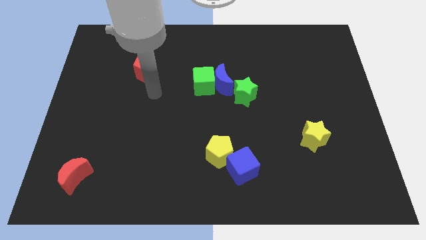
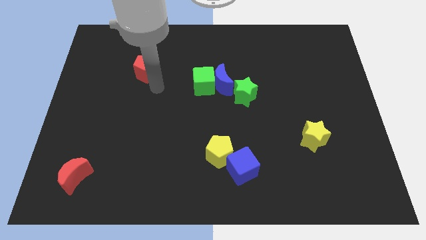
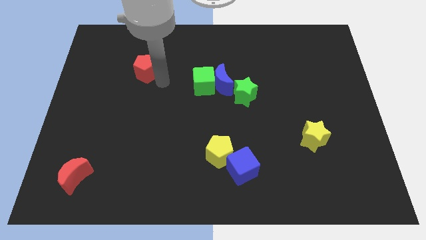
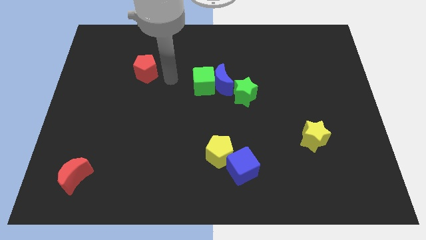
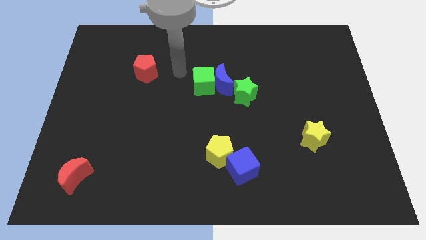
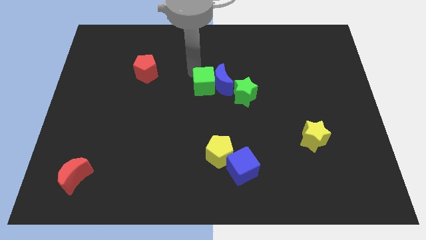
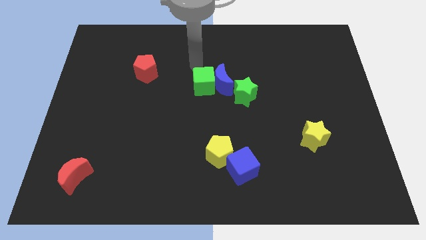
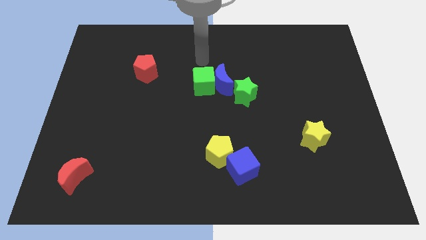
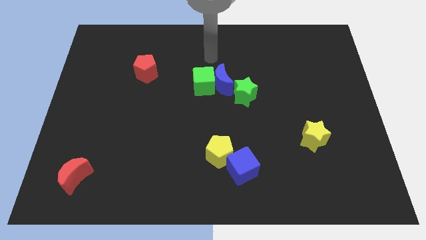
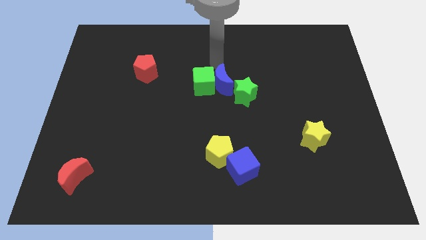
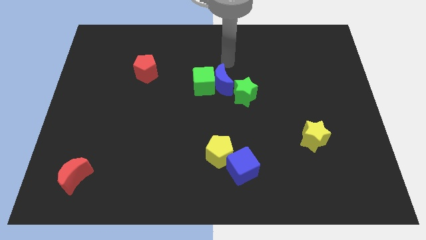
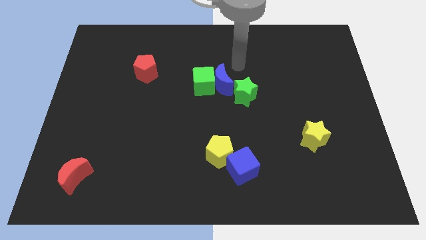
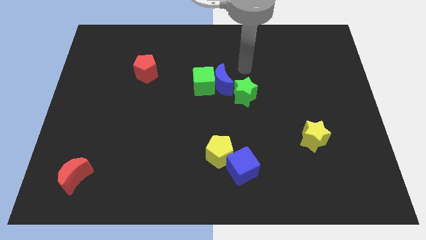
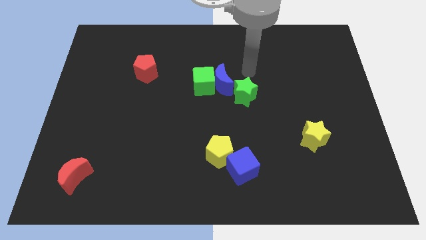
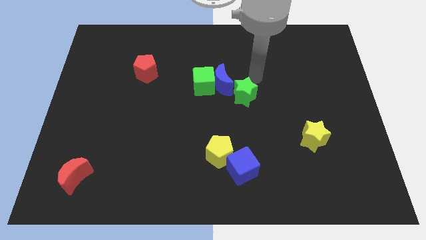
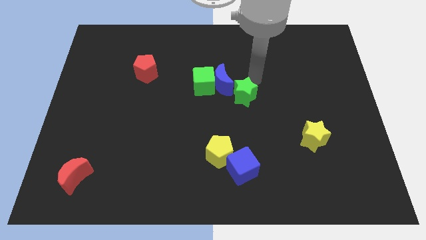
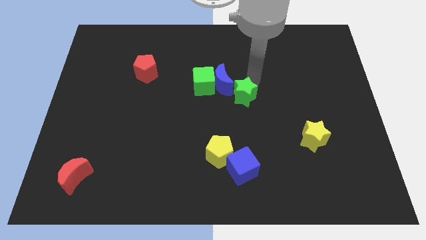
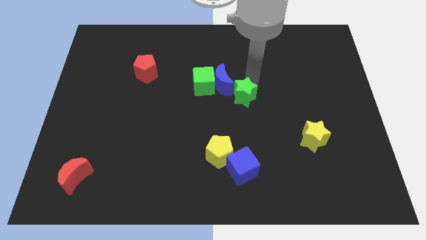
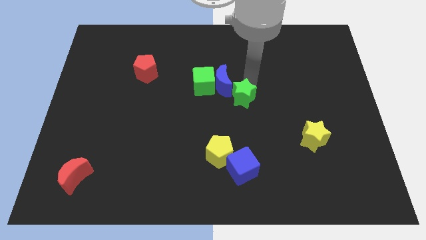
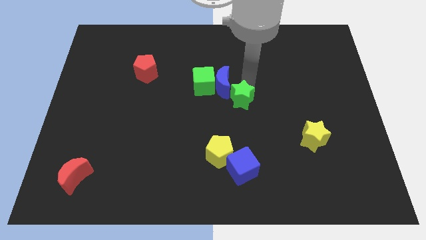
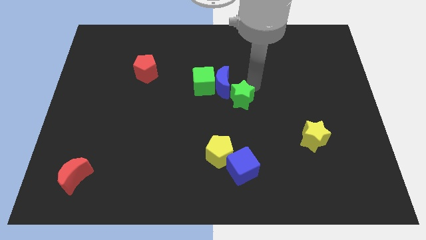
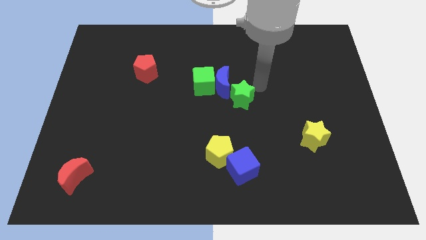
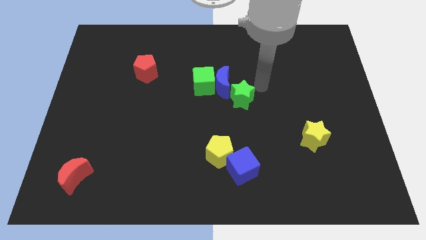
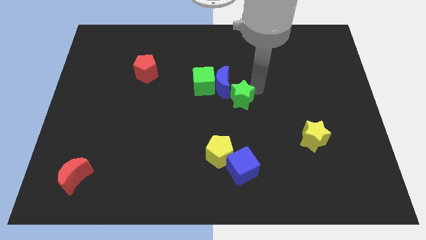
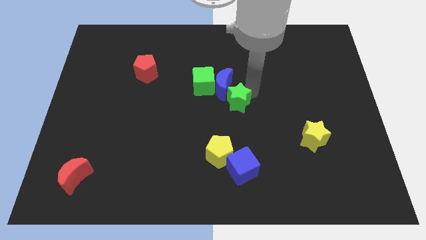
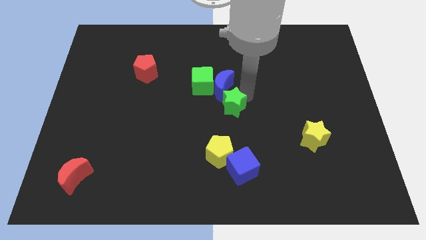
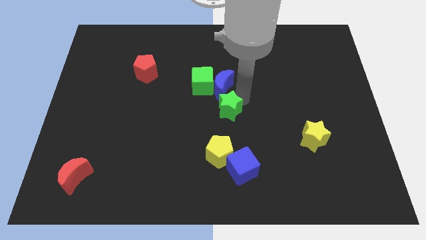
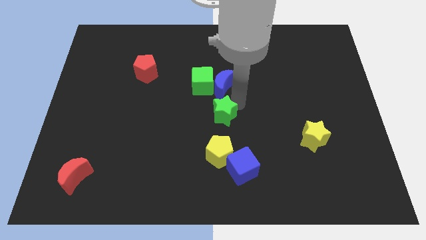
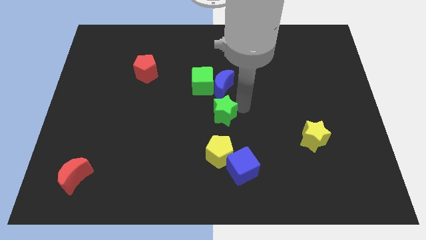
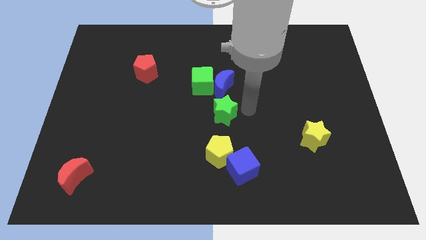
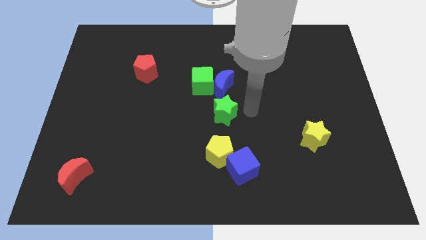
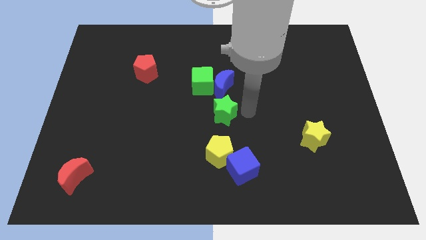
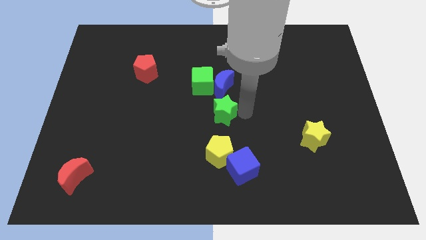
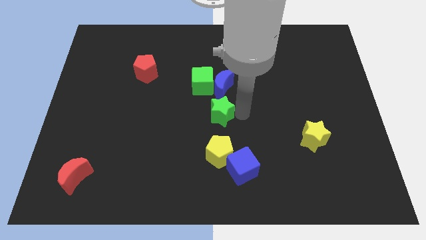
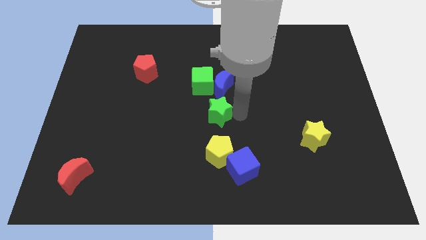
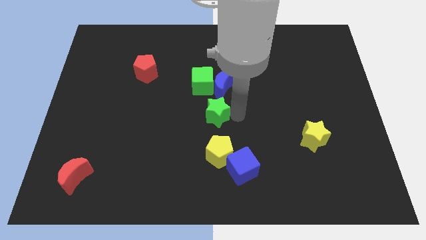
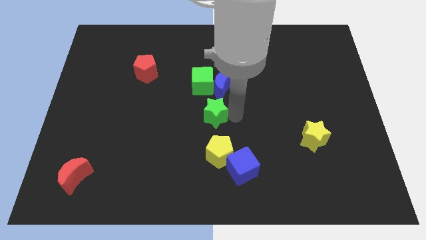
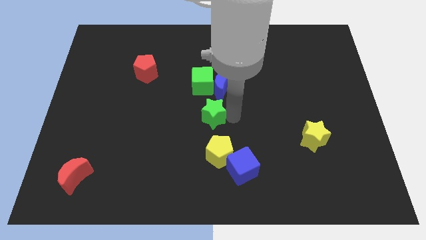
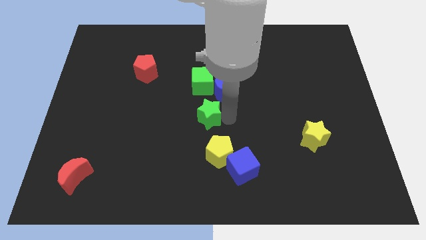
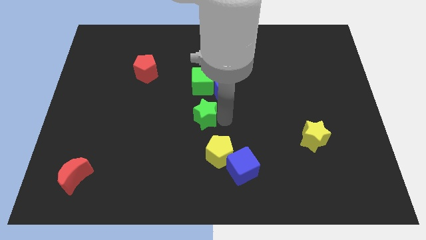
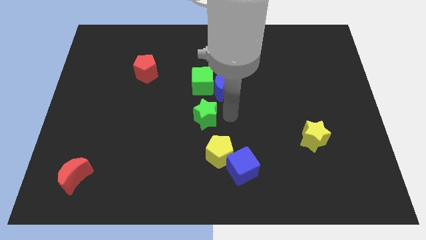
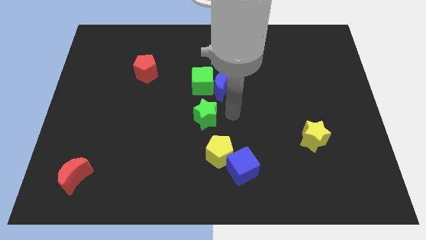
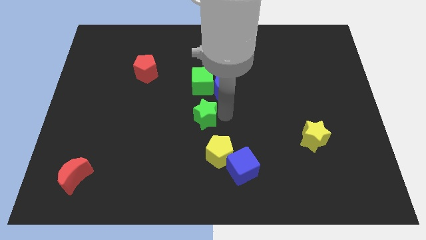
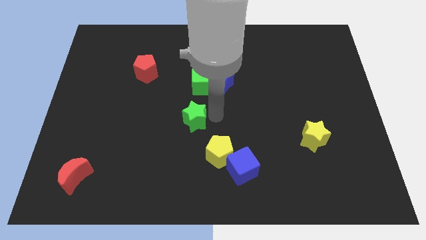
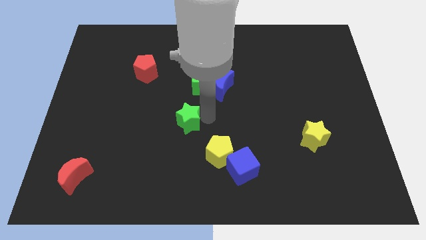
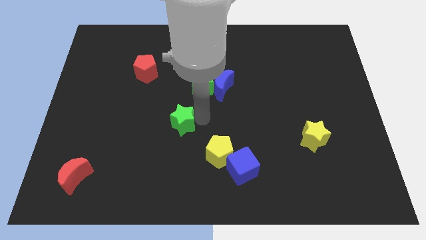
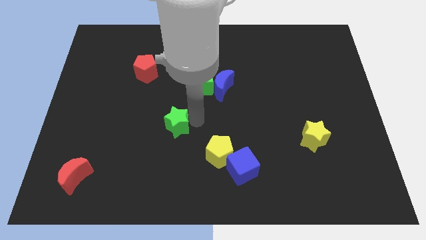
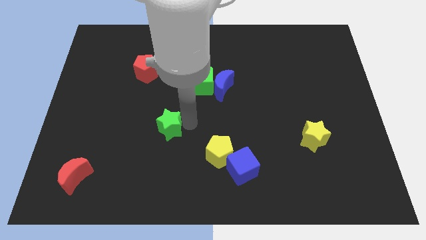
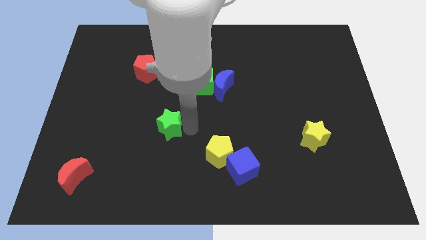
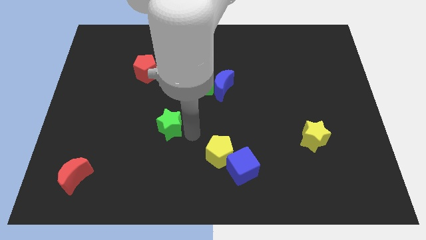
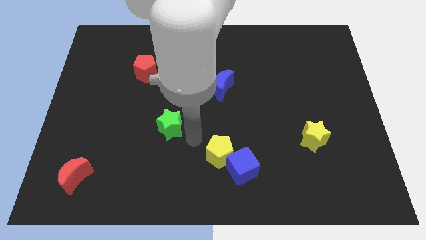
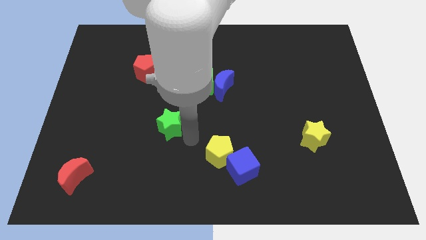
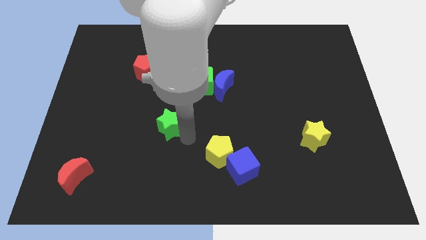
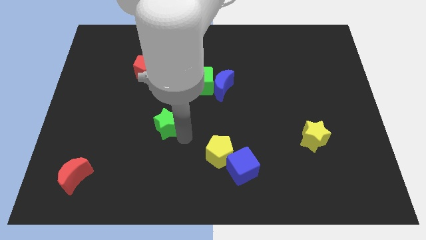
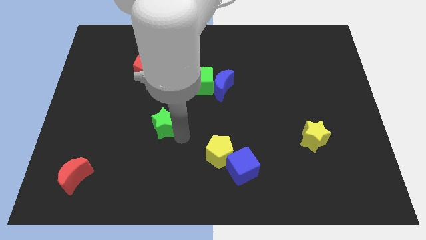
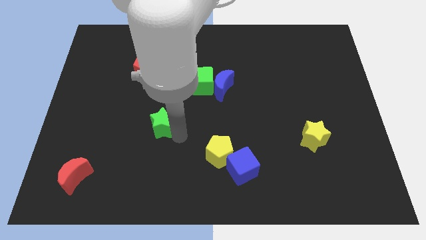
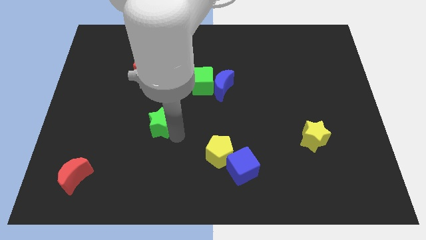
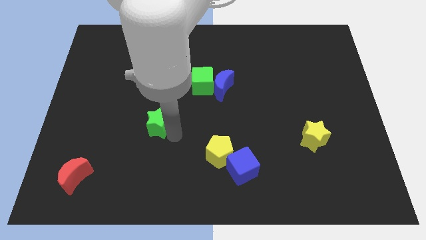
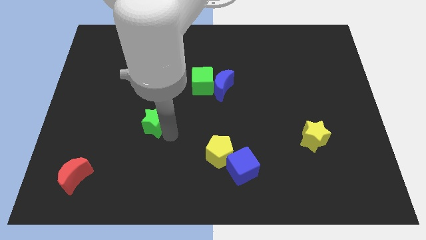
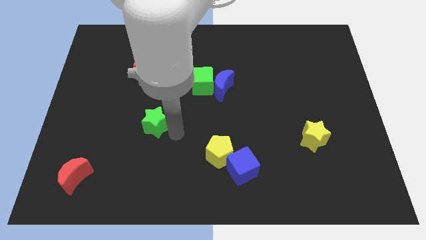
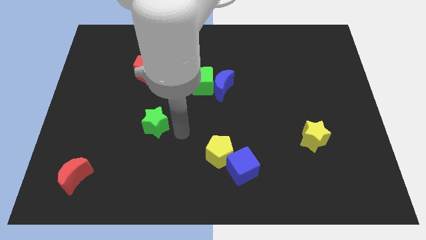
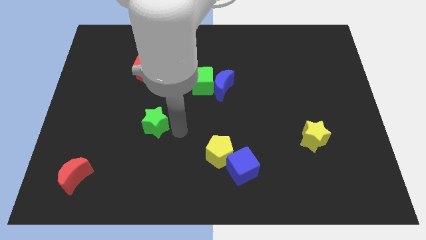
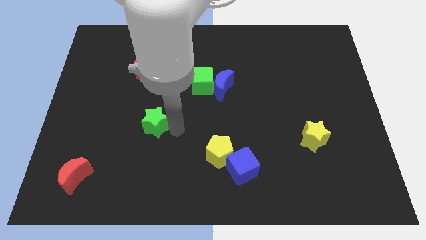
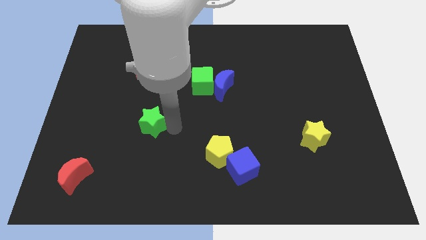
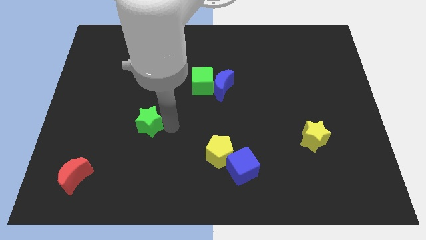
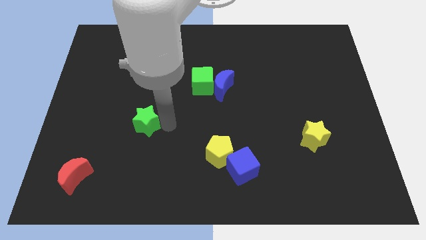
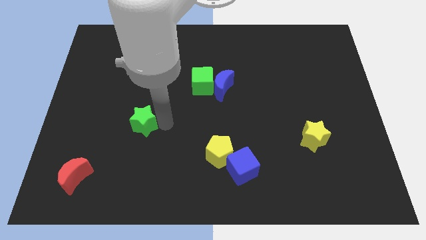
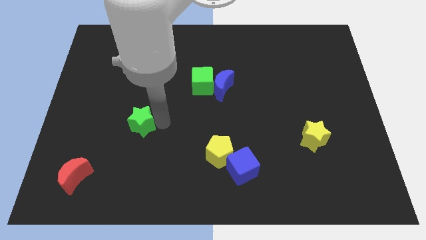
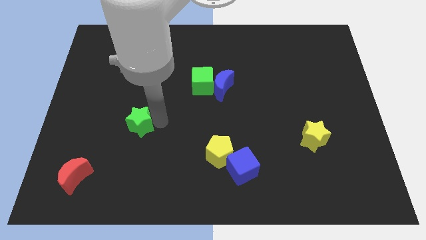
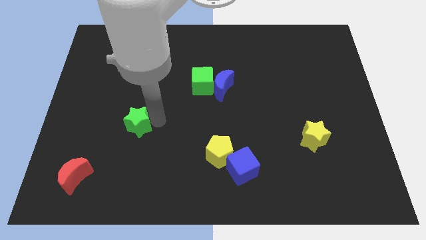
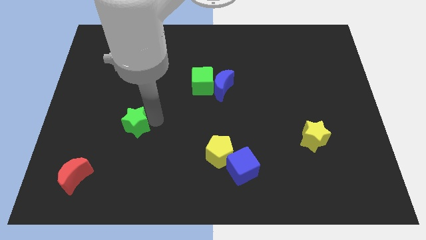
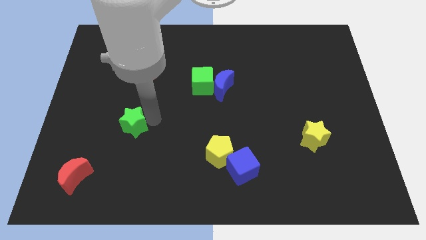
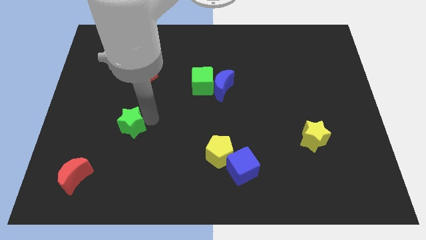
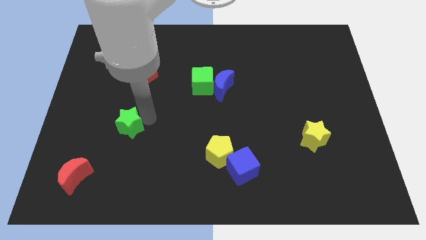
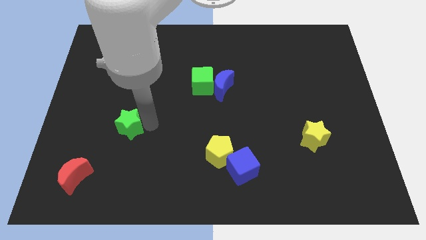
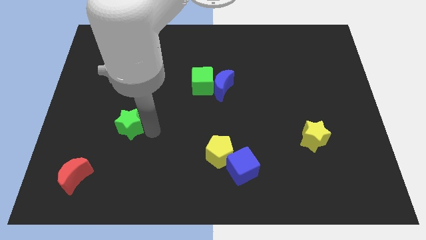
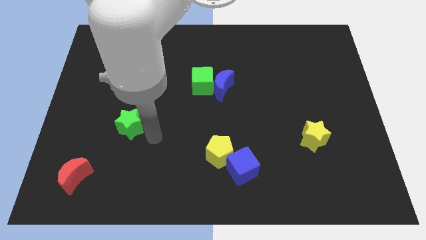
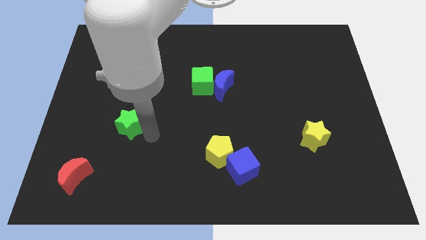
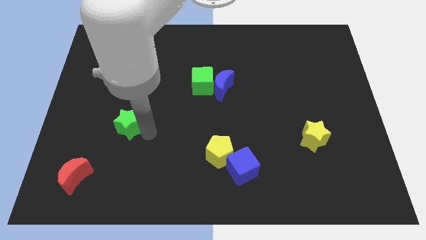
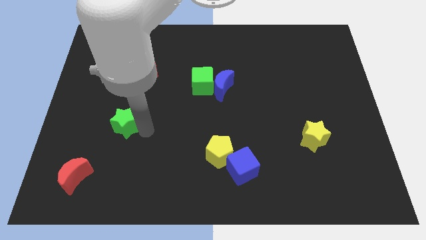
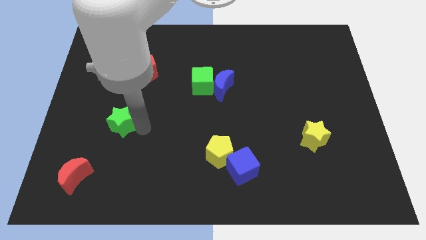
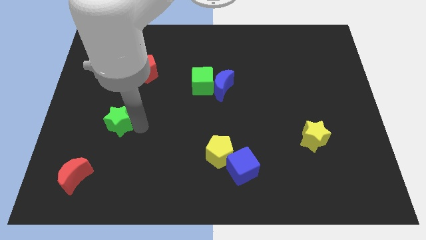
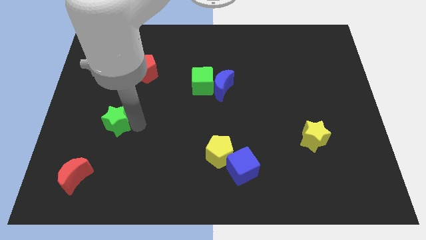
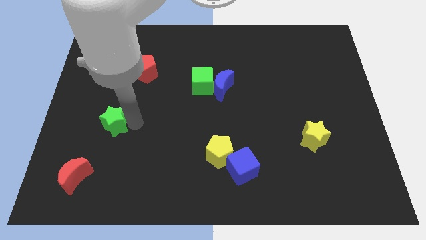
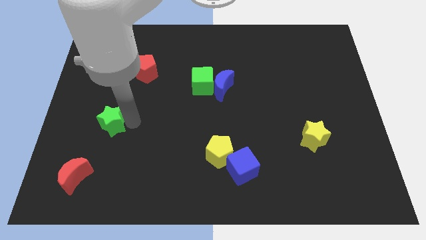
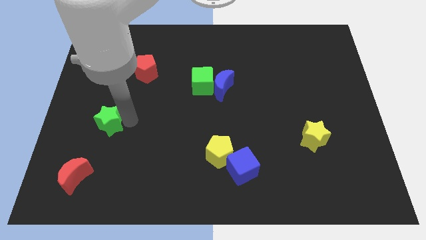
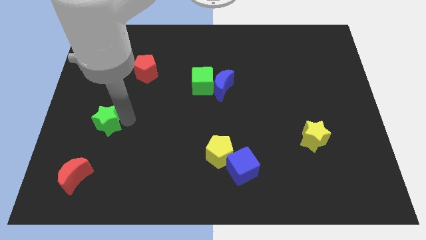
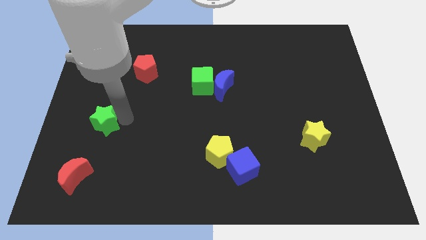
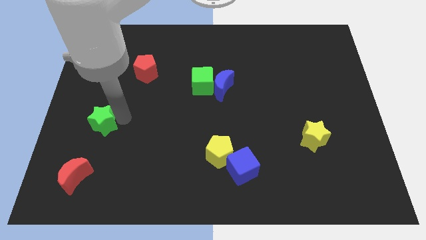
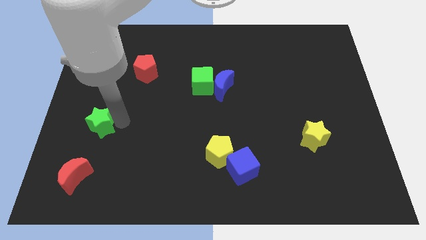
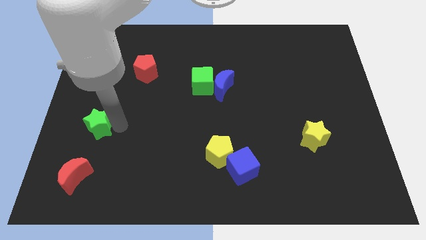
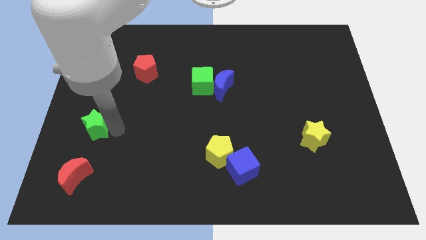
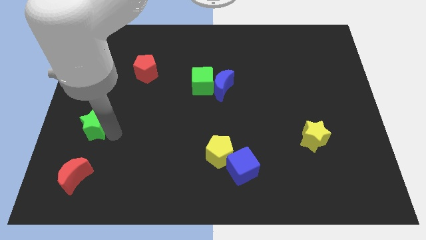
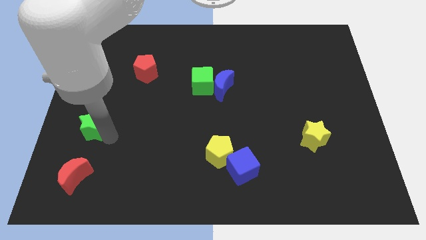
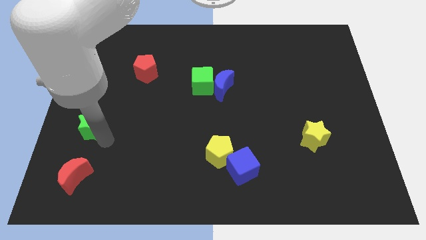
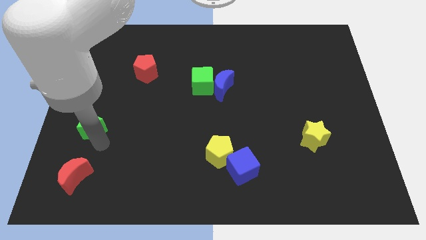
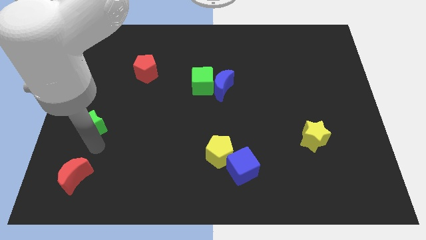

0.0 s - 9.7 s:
slide the green star to the left side of the board
